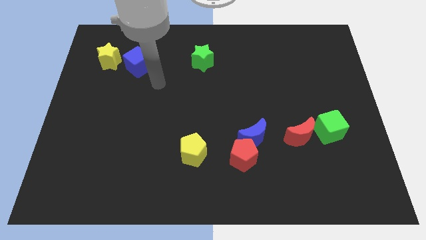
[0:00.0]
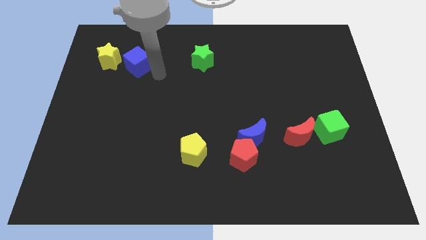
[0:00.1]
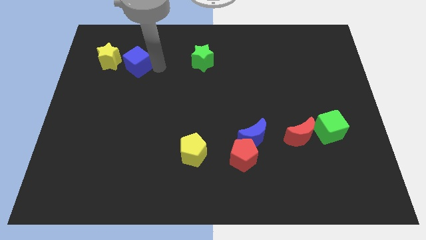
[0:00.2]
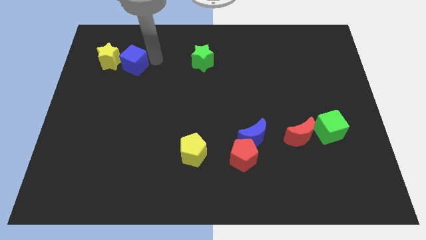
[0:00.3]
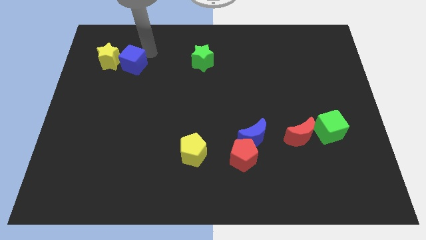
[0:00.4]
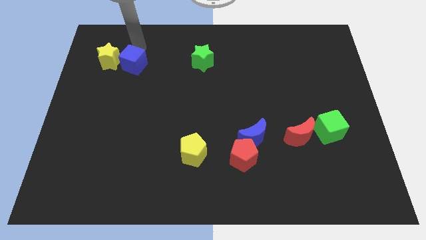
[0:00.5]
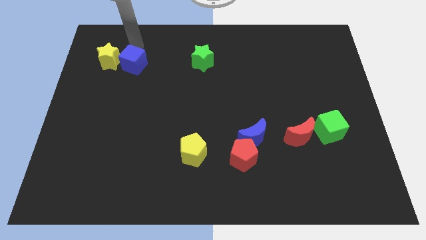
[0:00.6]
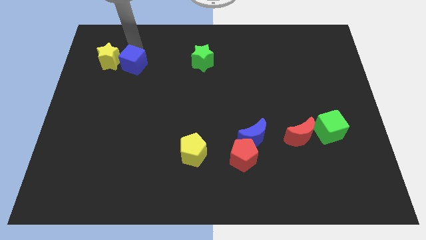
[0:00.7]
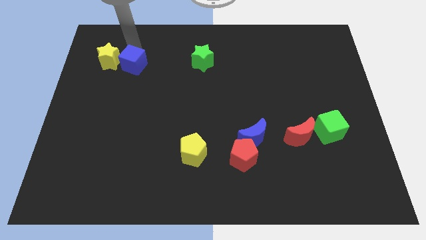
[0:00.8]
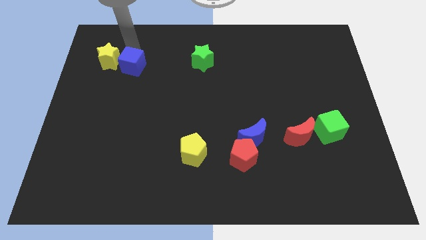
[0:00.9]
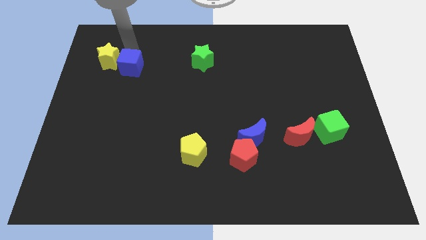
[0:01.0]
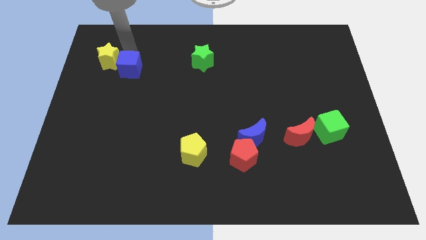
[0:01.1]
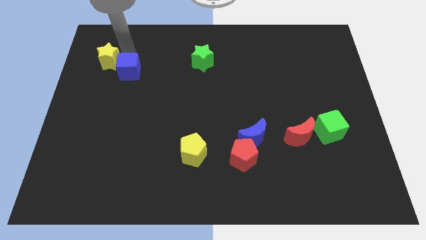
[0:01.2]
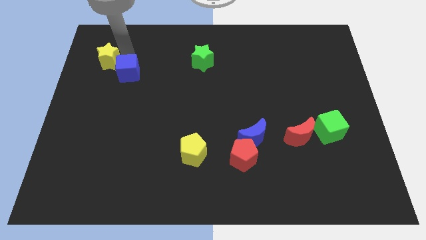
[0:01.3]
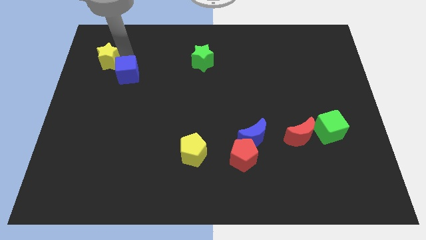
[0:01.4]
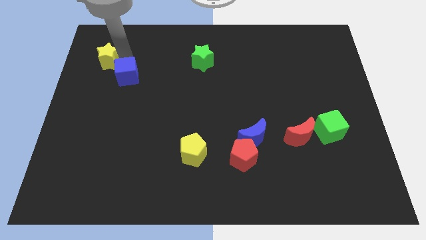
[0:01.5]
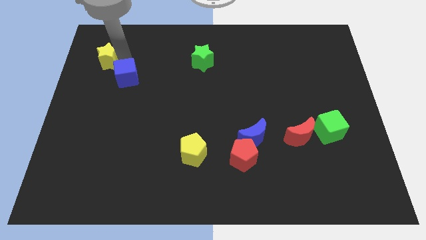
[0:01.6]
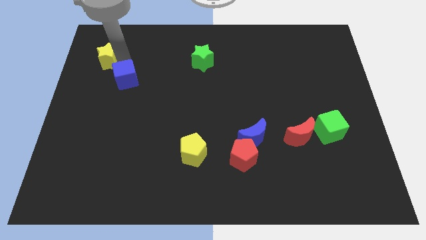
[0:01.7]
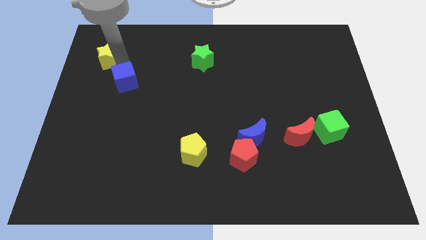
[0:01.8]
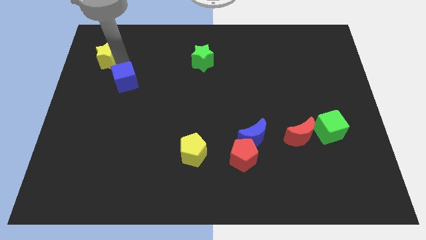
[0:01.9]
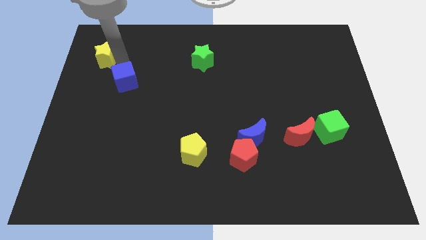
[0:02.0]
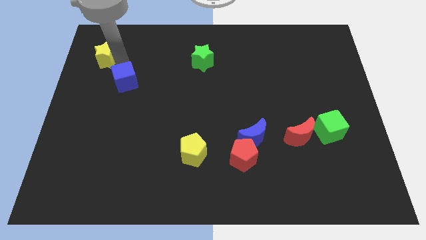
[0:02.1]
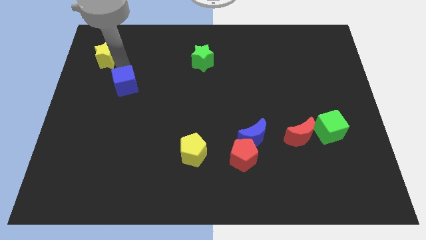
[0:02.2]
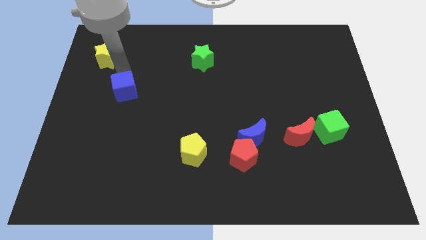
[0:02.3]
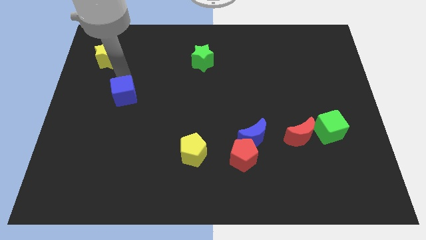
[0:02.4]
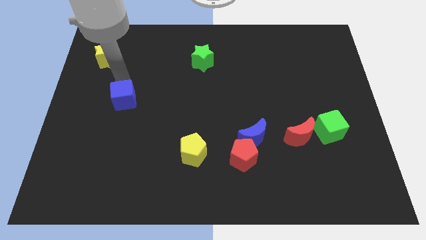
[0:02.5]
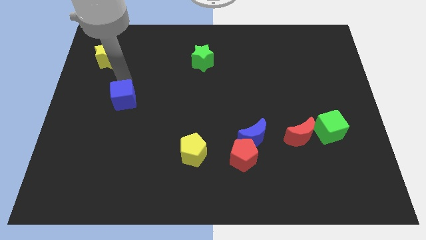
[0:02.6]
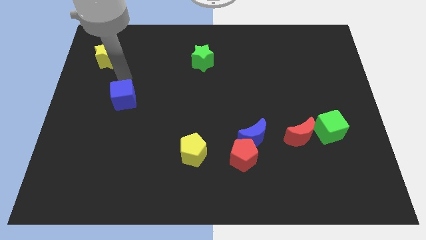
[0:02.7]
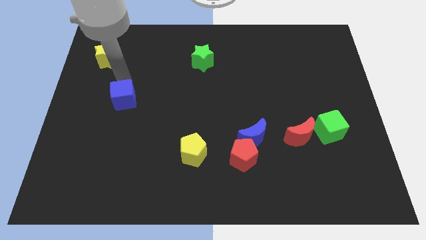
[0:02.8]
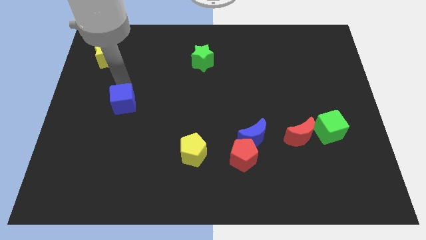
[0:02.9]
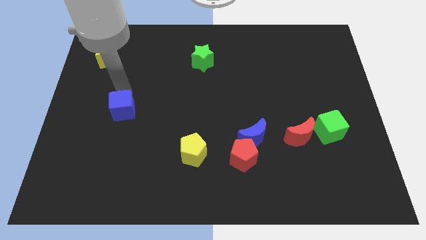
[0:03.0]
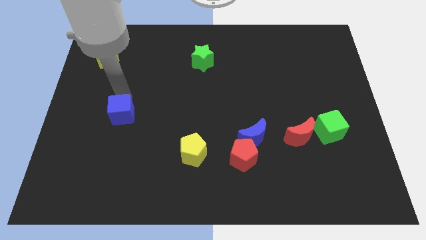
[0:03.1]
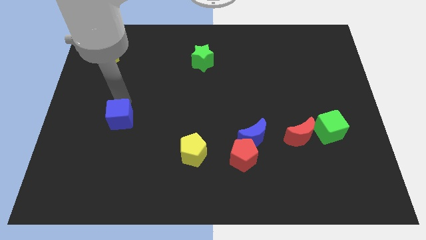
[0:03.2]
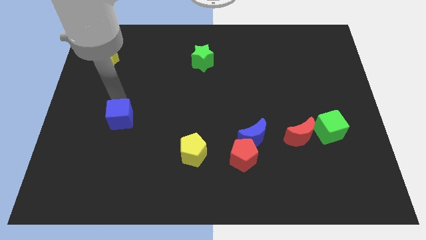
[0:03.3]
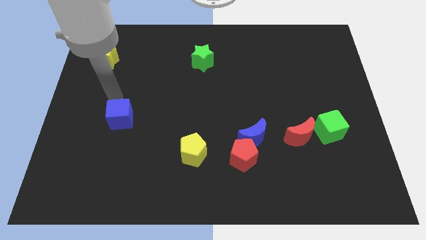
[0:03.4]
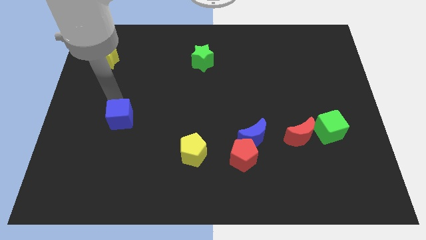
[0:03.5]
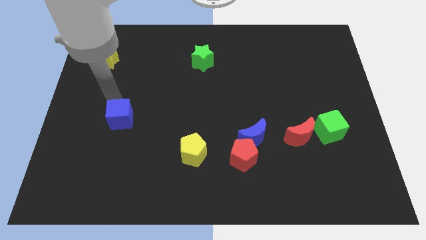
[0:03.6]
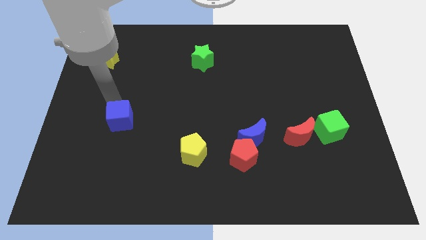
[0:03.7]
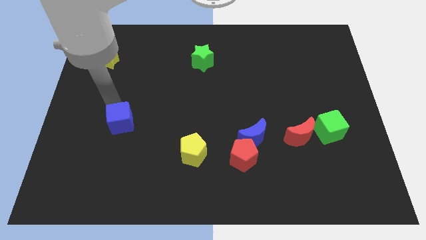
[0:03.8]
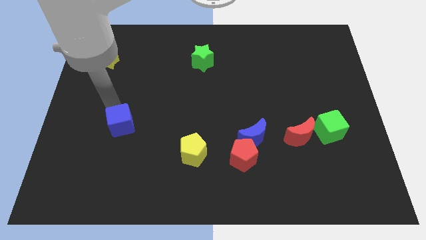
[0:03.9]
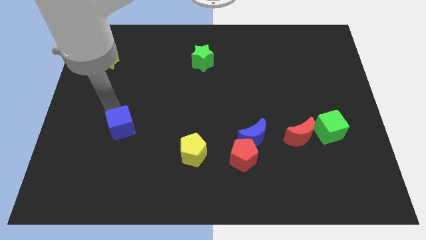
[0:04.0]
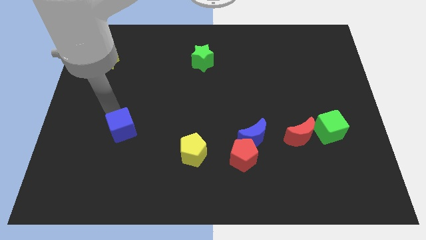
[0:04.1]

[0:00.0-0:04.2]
push the blue cube down

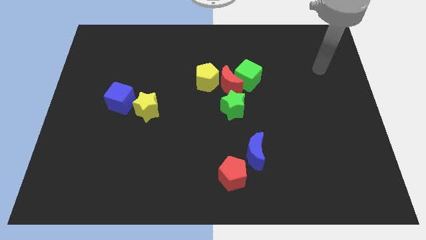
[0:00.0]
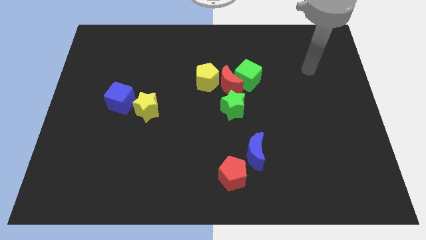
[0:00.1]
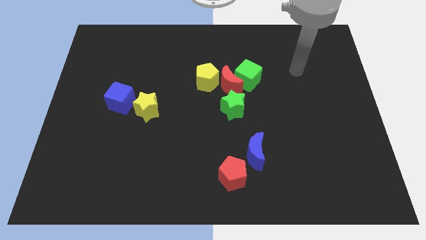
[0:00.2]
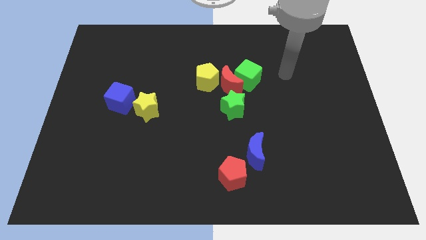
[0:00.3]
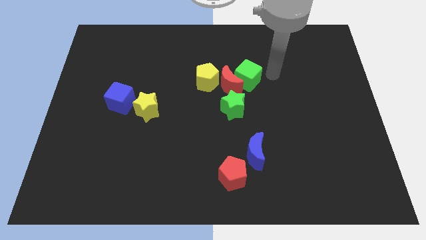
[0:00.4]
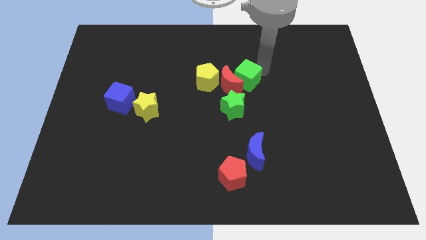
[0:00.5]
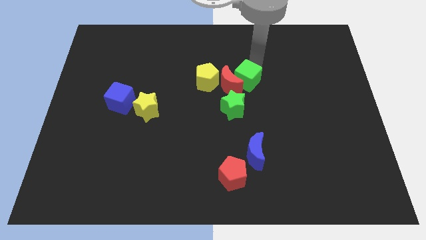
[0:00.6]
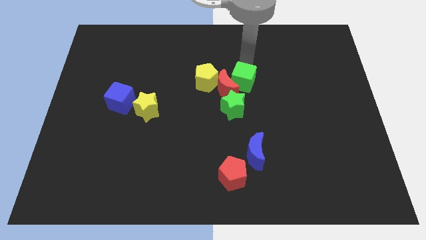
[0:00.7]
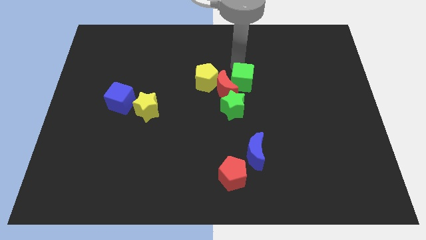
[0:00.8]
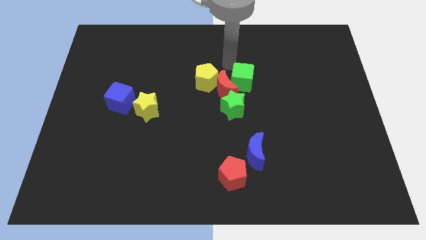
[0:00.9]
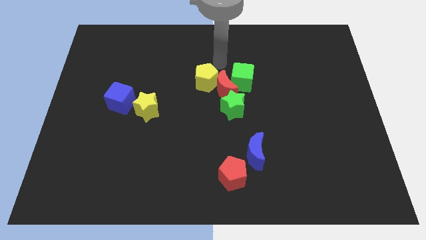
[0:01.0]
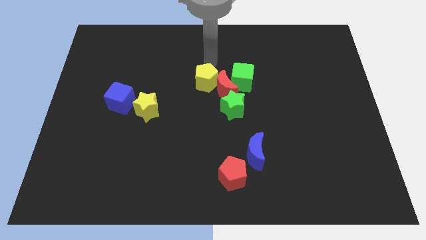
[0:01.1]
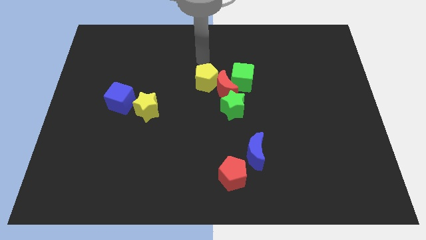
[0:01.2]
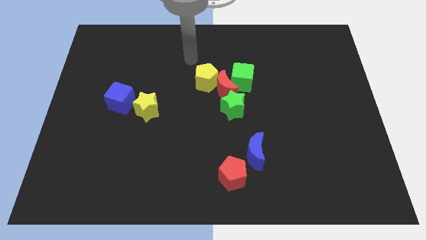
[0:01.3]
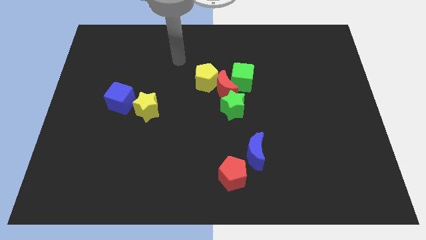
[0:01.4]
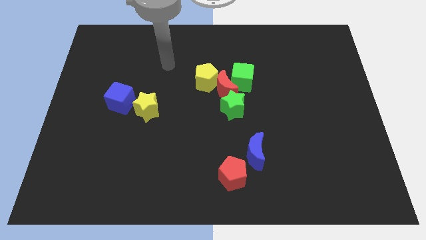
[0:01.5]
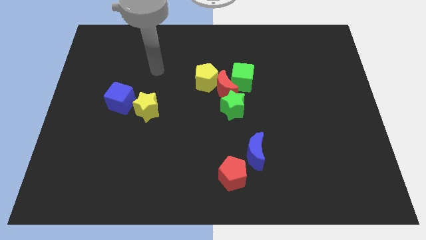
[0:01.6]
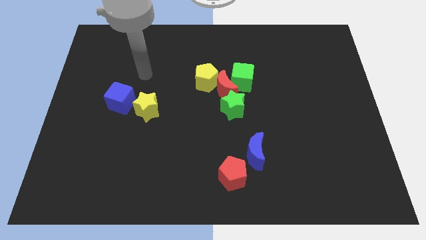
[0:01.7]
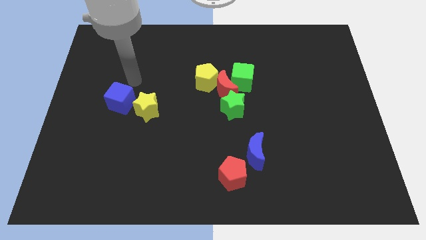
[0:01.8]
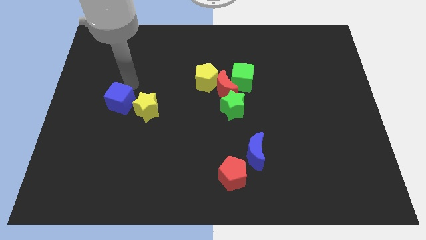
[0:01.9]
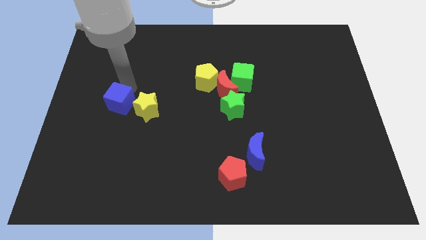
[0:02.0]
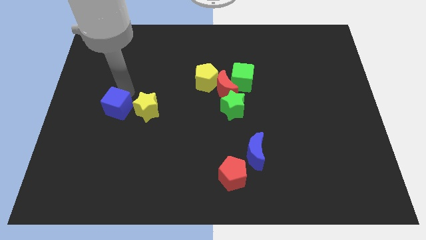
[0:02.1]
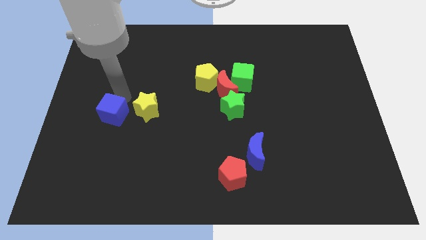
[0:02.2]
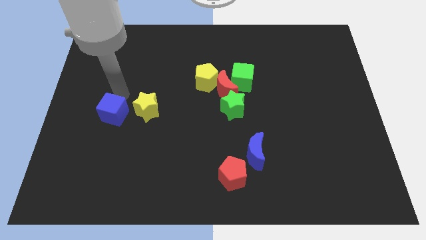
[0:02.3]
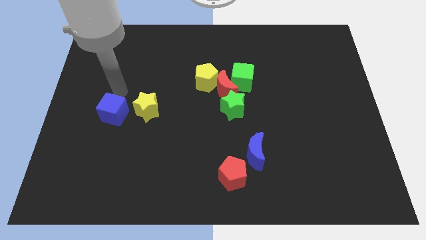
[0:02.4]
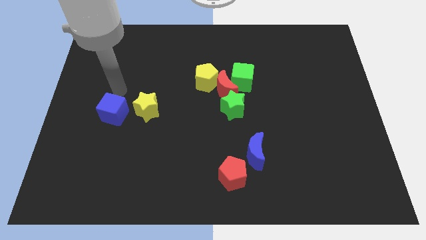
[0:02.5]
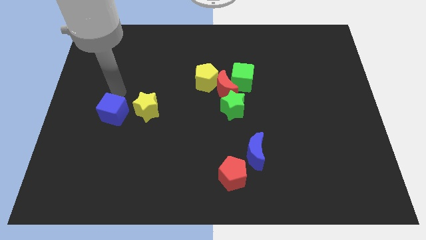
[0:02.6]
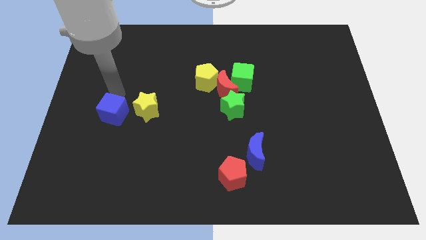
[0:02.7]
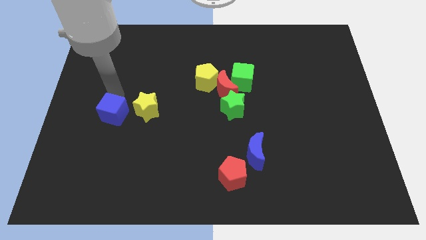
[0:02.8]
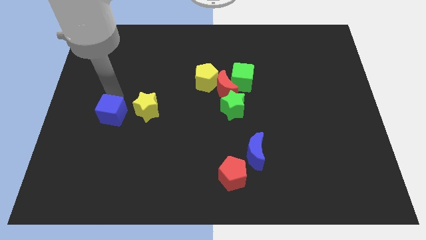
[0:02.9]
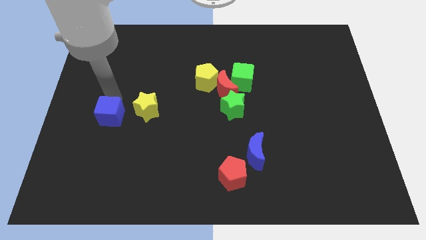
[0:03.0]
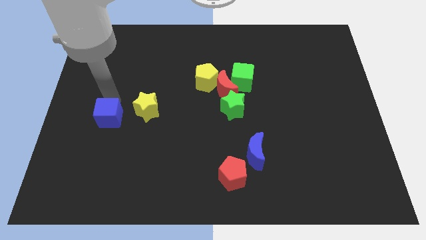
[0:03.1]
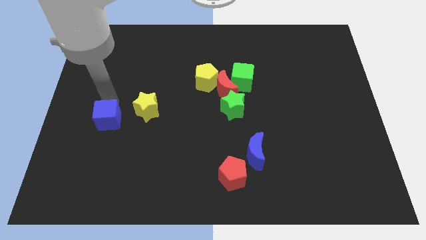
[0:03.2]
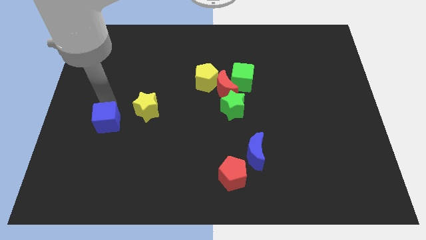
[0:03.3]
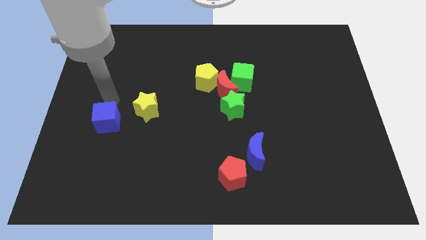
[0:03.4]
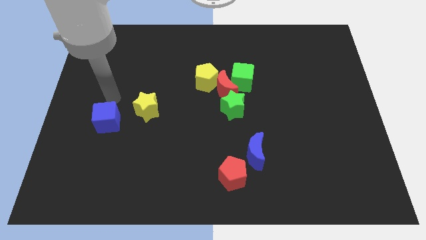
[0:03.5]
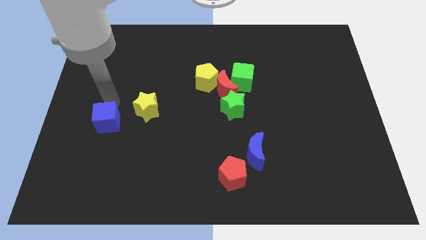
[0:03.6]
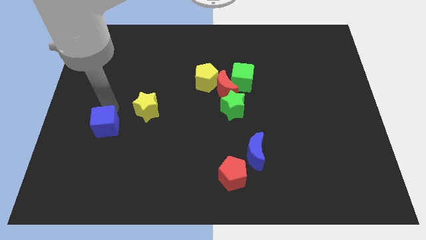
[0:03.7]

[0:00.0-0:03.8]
move the blue cube a bit down

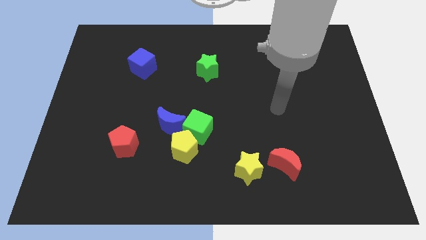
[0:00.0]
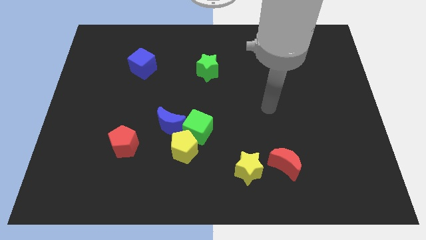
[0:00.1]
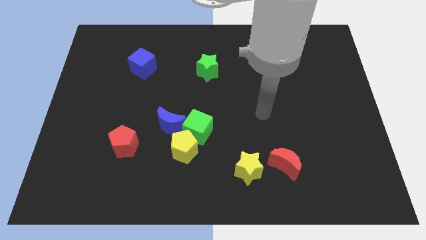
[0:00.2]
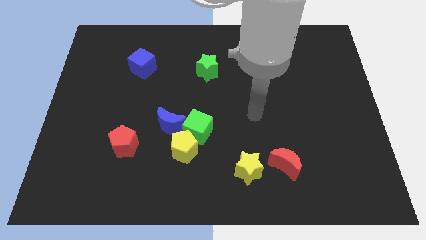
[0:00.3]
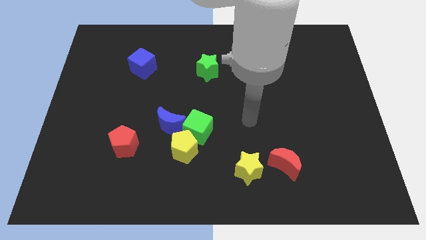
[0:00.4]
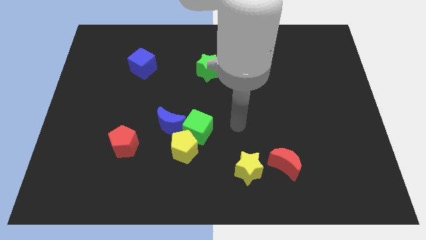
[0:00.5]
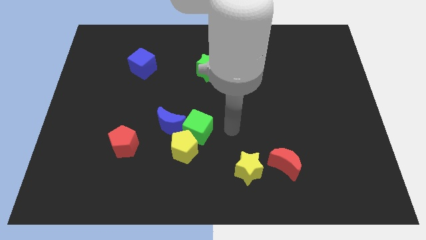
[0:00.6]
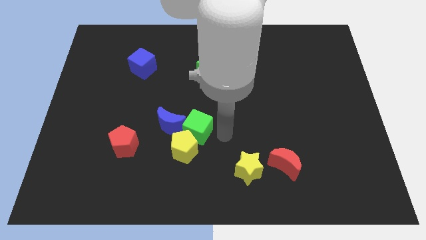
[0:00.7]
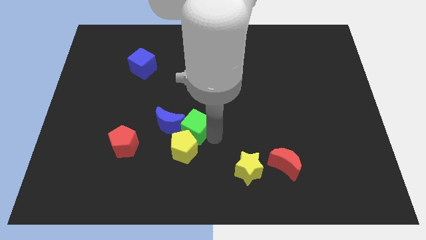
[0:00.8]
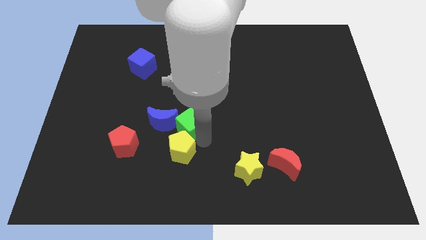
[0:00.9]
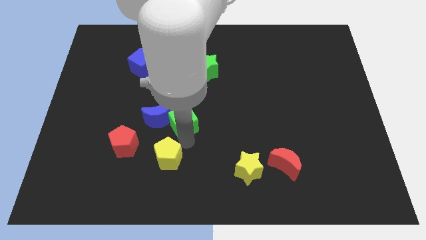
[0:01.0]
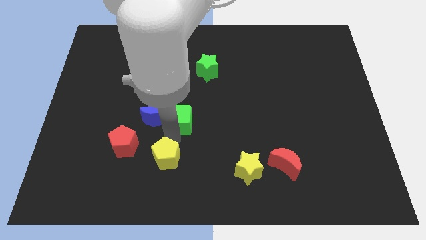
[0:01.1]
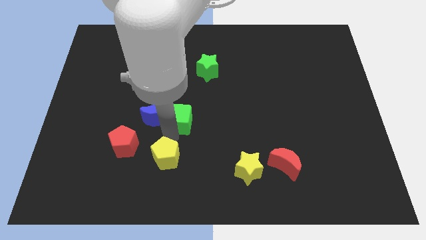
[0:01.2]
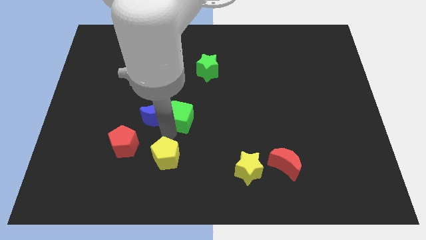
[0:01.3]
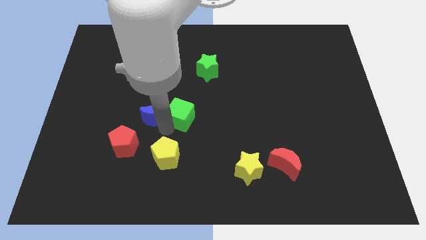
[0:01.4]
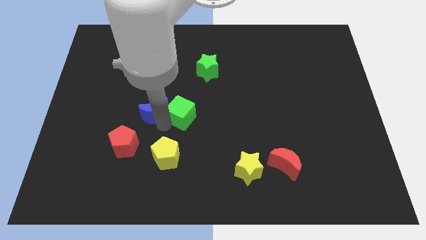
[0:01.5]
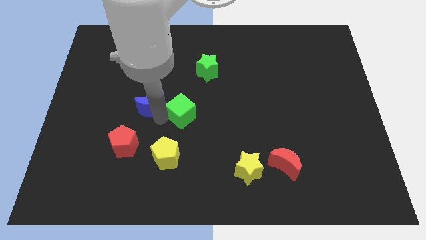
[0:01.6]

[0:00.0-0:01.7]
slightly slide the blue moon upwards and then left
